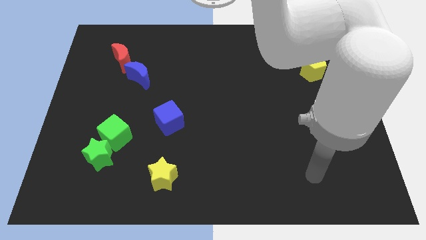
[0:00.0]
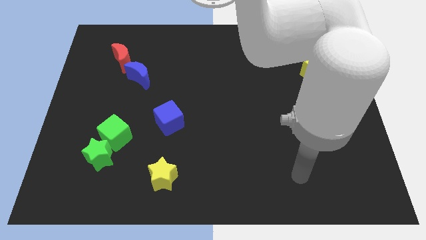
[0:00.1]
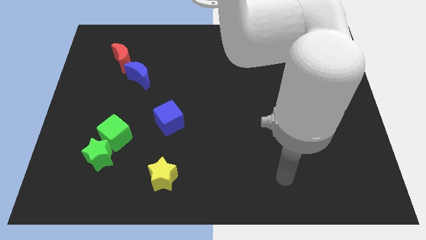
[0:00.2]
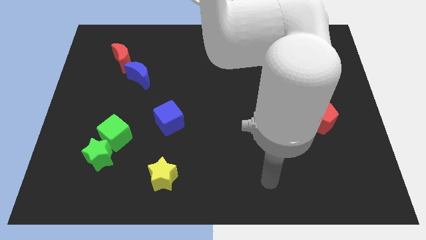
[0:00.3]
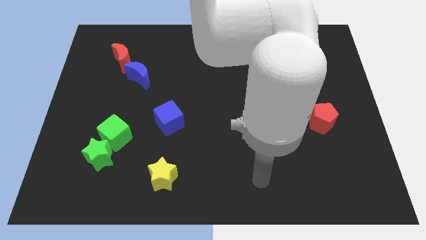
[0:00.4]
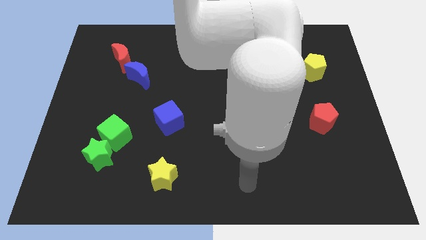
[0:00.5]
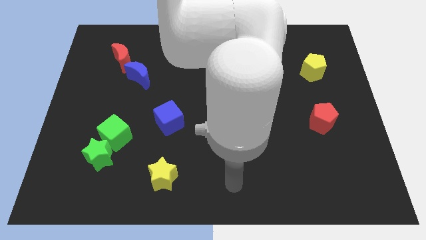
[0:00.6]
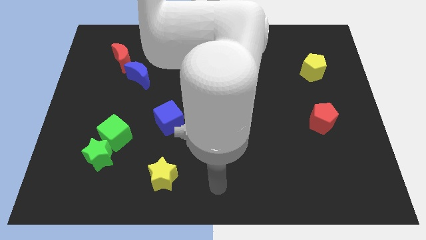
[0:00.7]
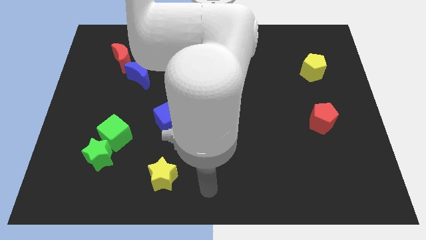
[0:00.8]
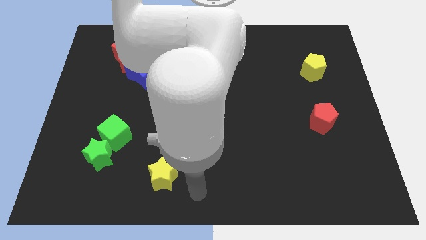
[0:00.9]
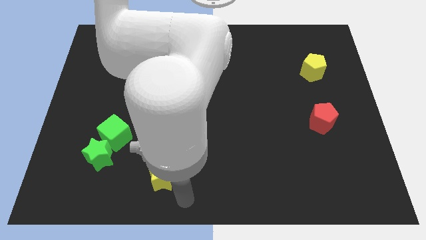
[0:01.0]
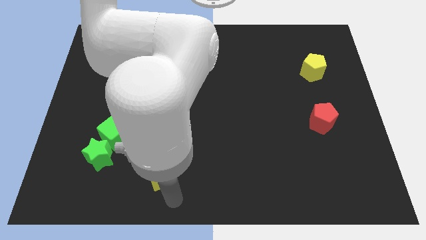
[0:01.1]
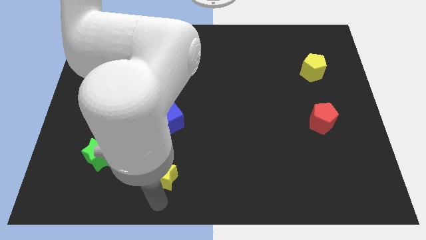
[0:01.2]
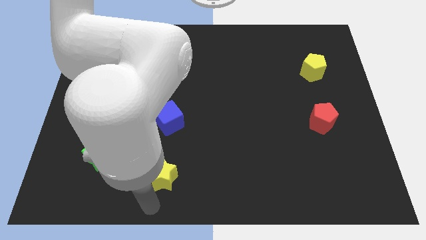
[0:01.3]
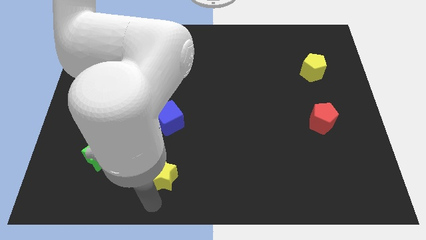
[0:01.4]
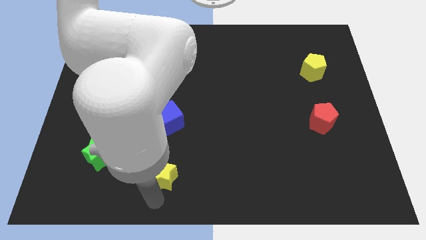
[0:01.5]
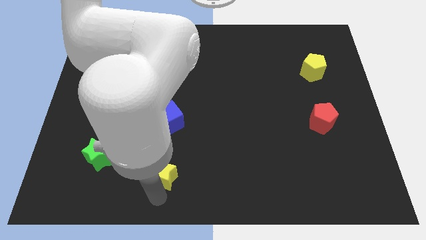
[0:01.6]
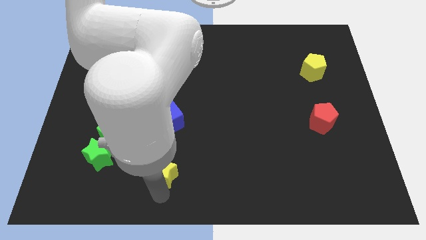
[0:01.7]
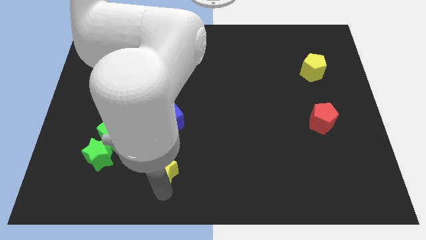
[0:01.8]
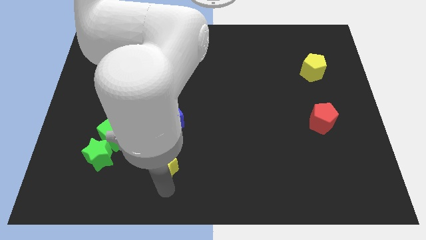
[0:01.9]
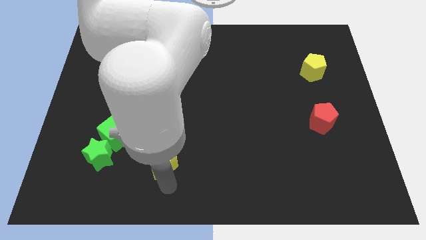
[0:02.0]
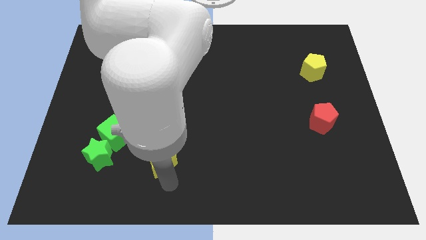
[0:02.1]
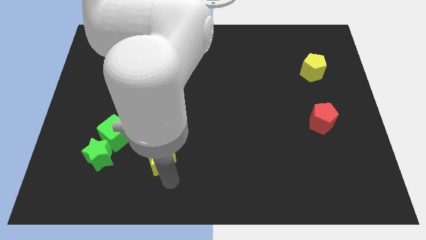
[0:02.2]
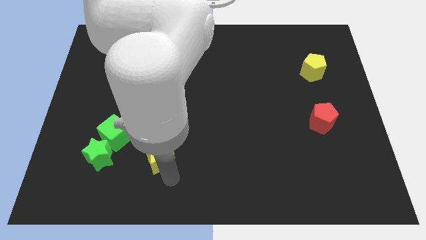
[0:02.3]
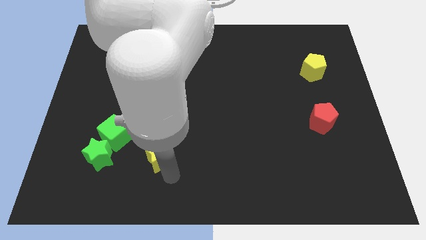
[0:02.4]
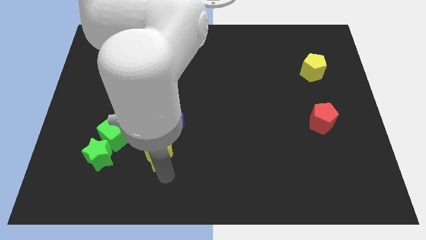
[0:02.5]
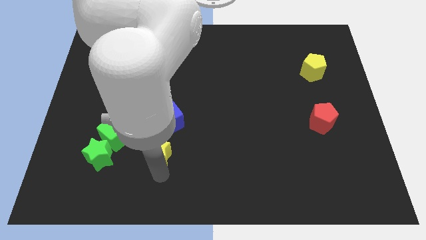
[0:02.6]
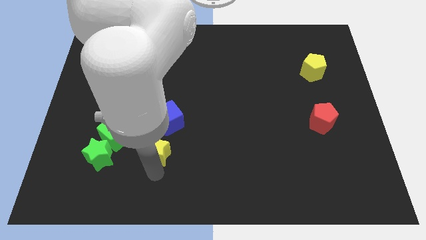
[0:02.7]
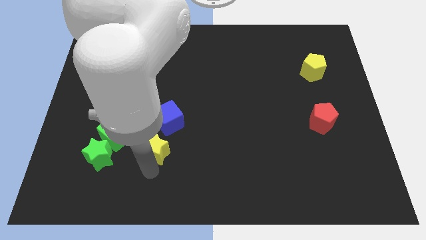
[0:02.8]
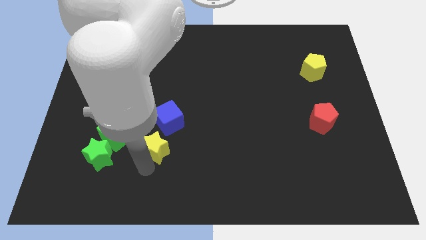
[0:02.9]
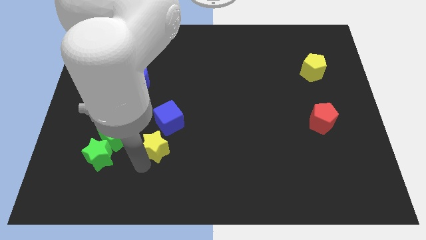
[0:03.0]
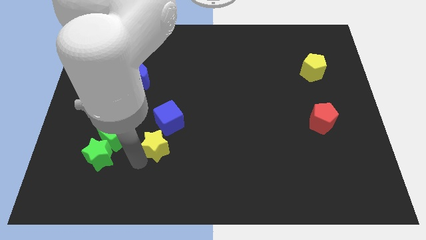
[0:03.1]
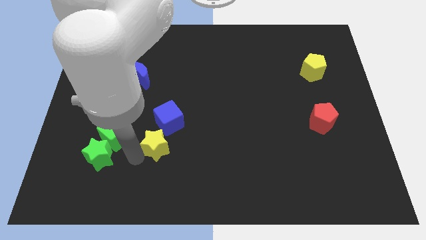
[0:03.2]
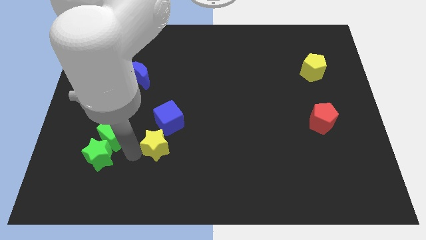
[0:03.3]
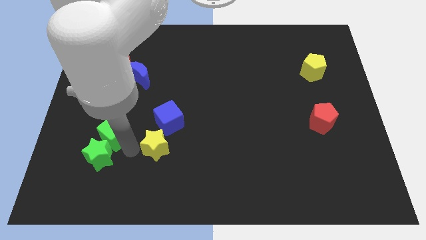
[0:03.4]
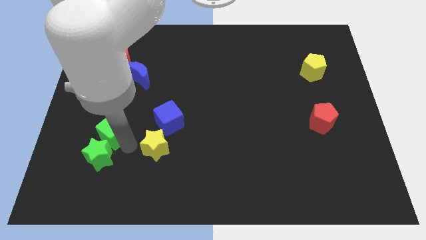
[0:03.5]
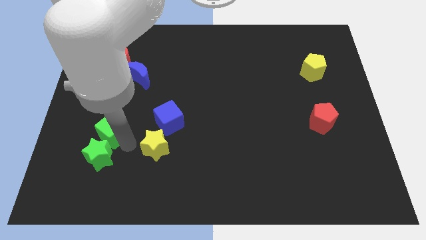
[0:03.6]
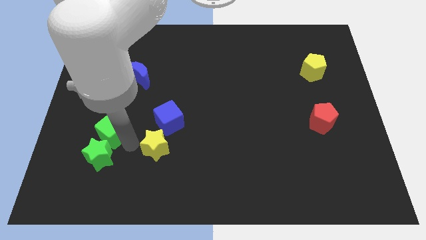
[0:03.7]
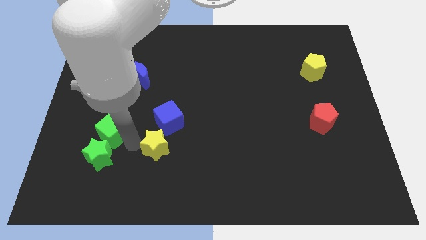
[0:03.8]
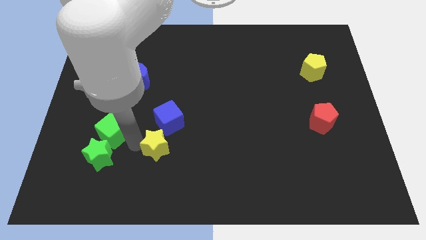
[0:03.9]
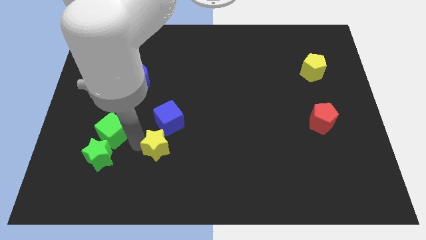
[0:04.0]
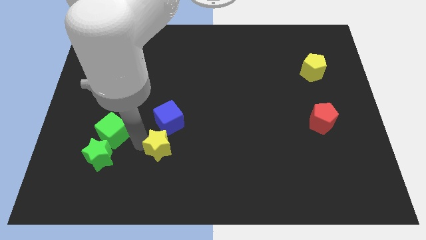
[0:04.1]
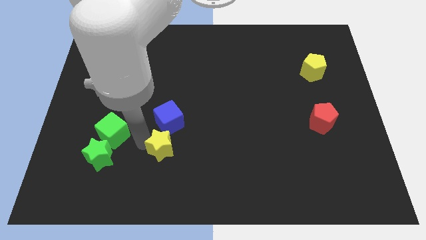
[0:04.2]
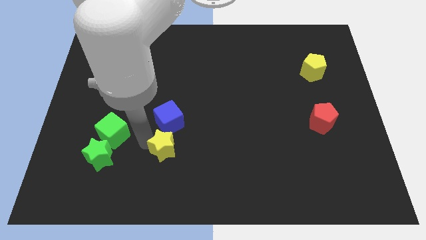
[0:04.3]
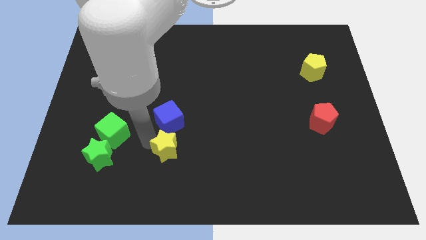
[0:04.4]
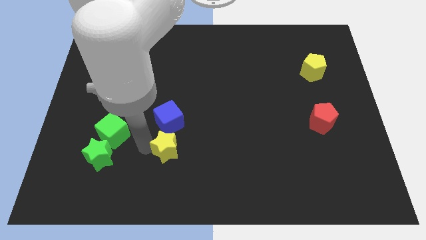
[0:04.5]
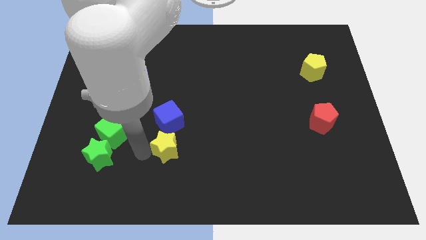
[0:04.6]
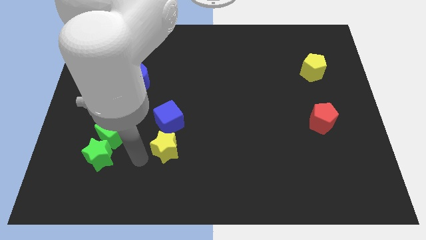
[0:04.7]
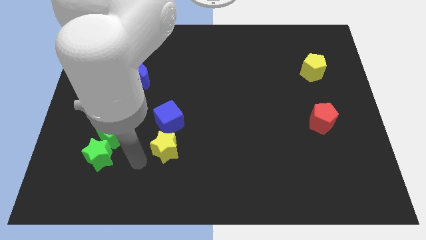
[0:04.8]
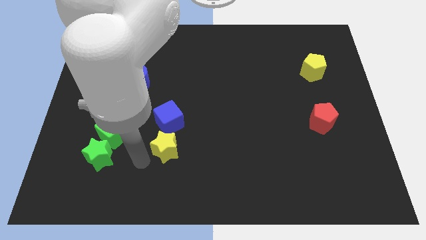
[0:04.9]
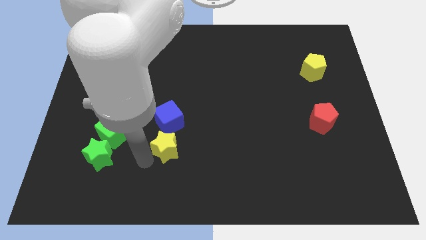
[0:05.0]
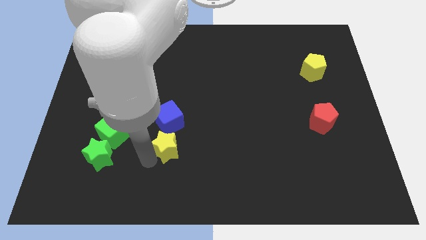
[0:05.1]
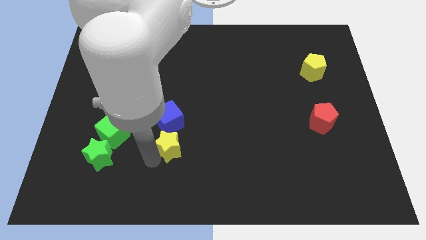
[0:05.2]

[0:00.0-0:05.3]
slide the yellow star to the bottom right side of the blue cube
